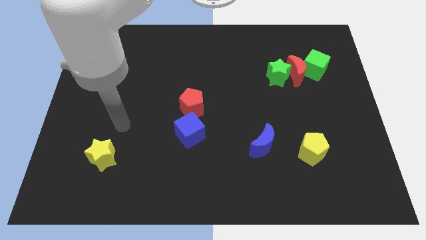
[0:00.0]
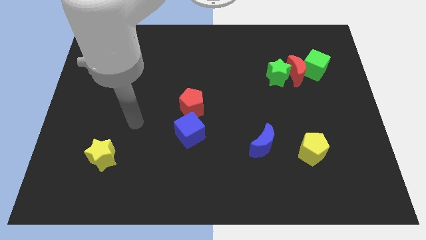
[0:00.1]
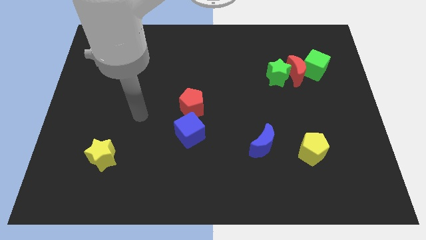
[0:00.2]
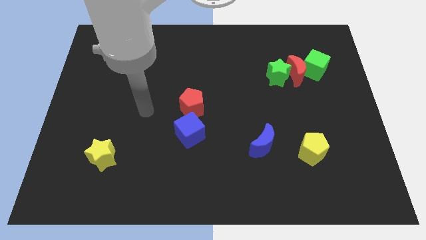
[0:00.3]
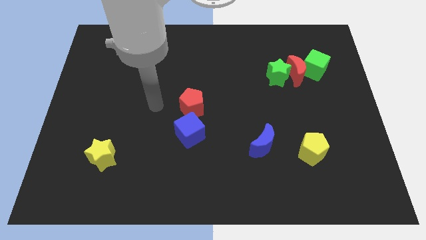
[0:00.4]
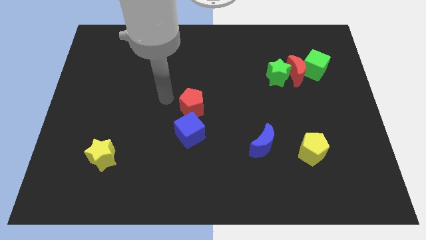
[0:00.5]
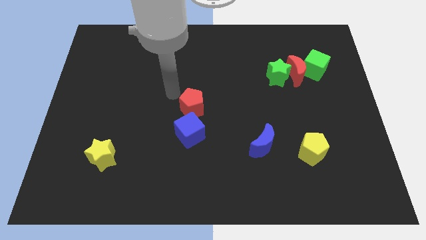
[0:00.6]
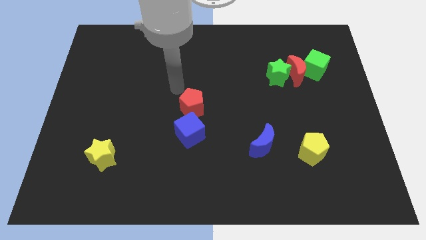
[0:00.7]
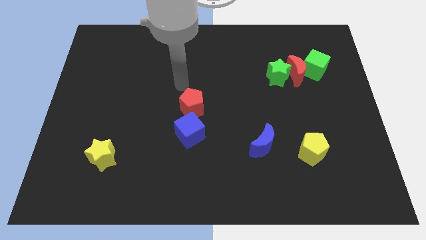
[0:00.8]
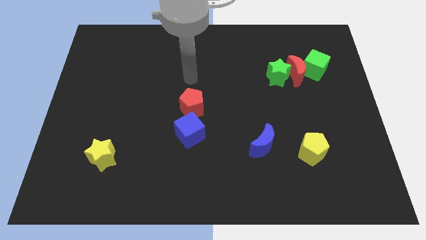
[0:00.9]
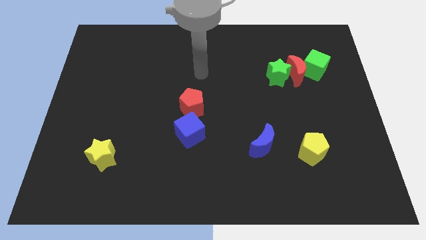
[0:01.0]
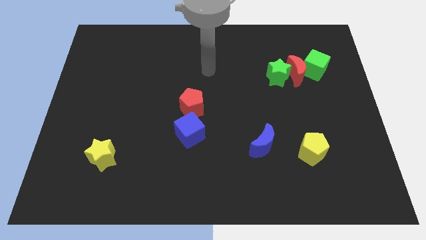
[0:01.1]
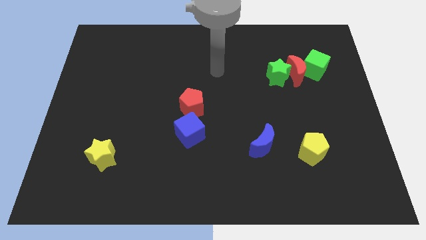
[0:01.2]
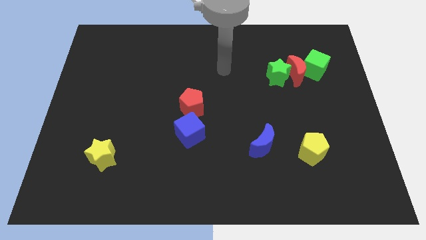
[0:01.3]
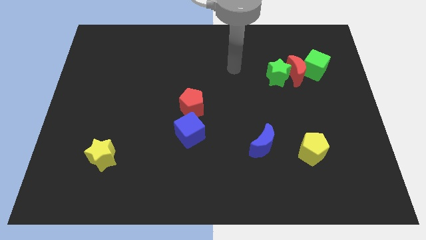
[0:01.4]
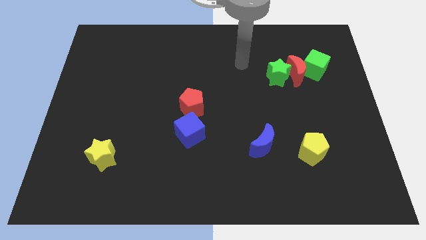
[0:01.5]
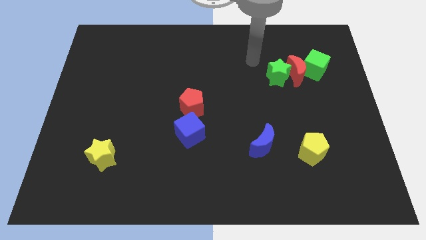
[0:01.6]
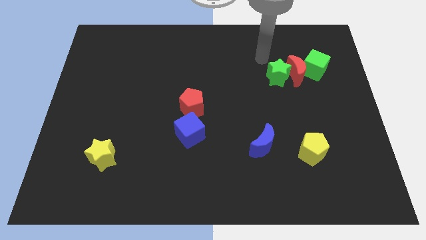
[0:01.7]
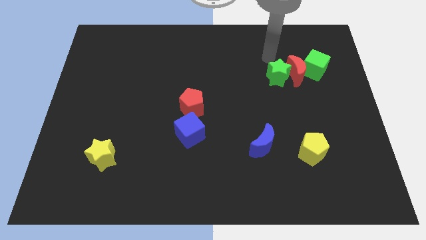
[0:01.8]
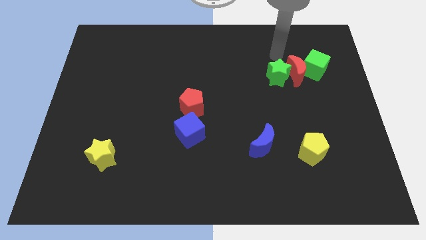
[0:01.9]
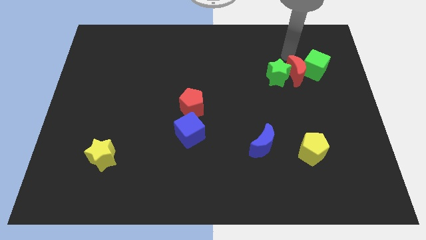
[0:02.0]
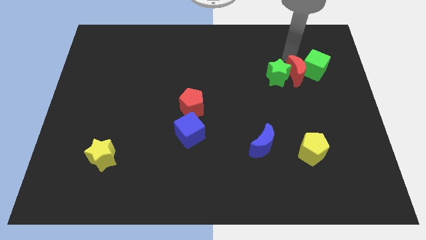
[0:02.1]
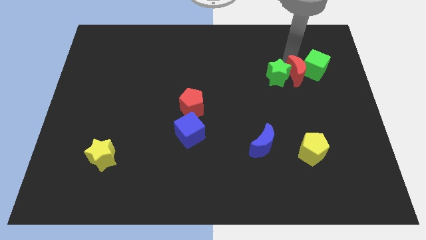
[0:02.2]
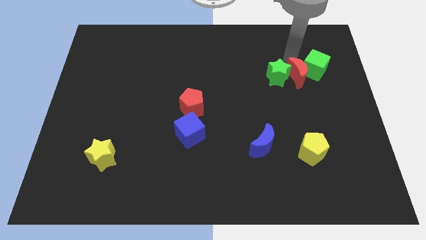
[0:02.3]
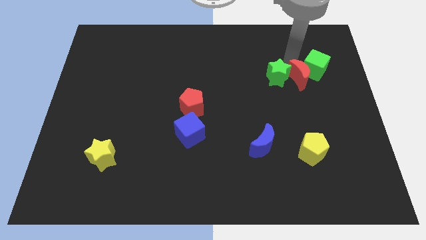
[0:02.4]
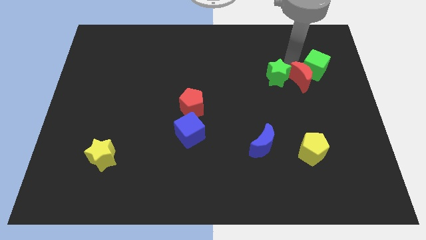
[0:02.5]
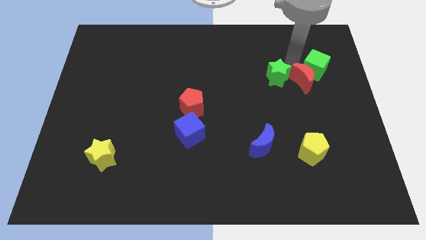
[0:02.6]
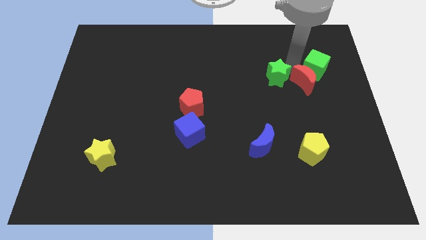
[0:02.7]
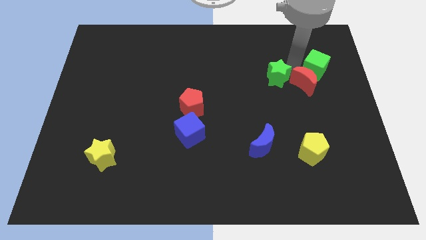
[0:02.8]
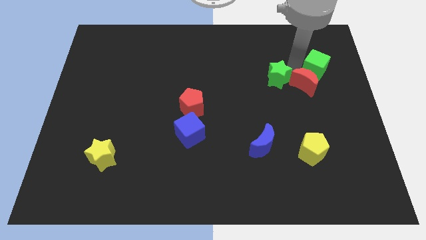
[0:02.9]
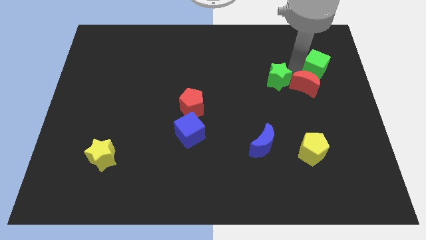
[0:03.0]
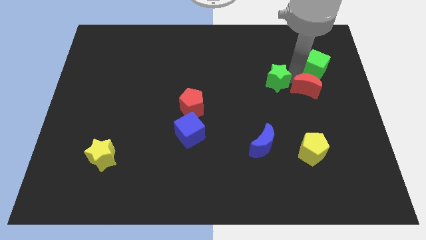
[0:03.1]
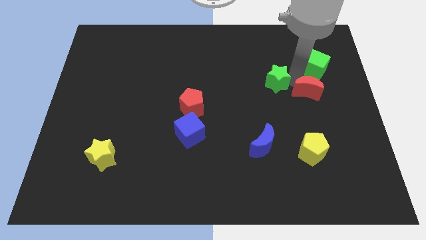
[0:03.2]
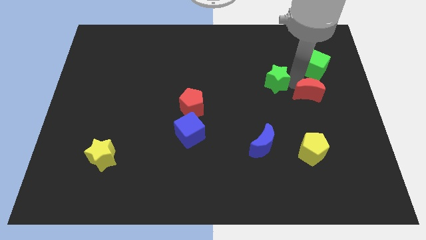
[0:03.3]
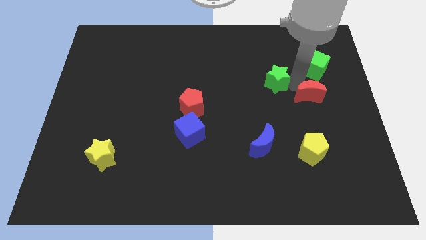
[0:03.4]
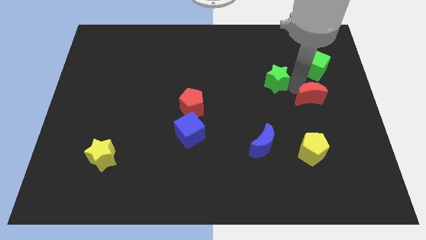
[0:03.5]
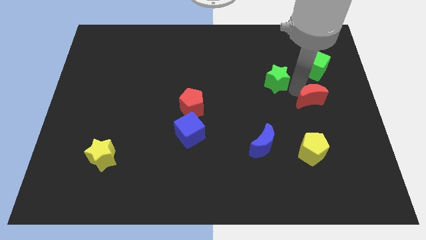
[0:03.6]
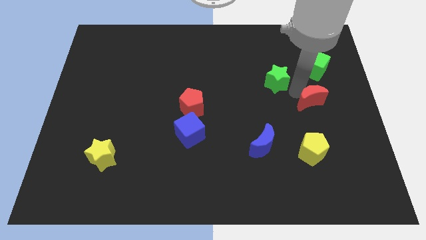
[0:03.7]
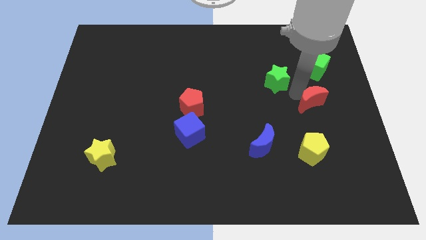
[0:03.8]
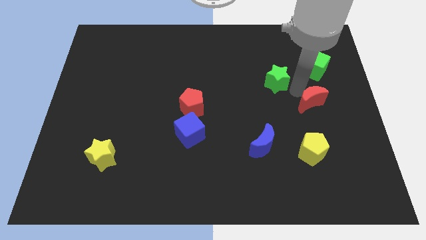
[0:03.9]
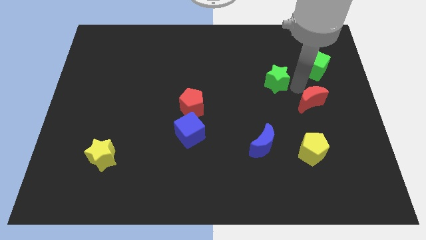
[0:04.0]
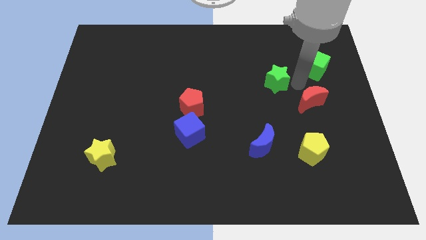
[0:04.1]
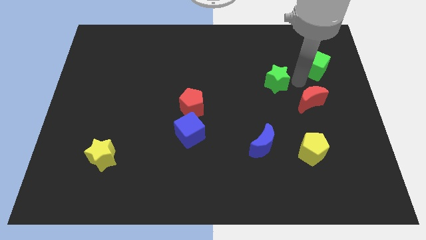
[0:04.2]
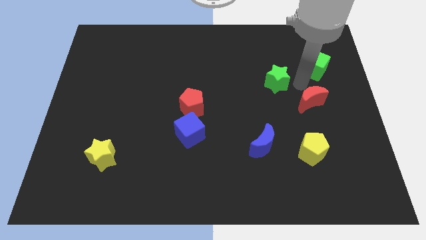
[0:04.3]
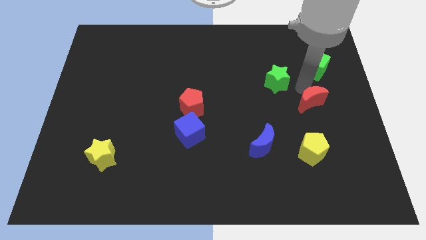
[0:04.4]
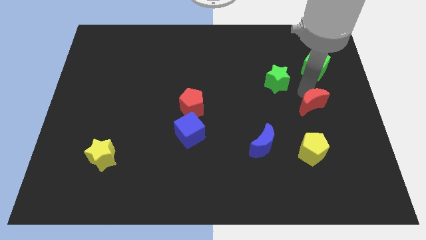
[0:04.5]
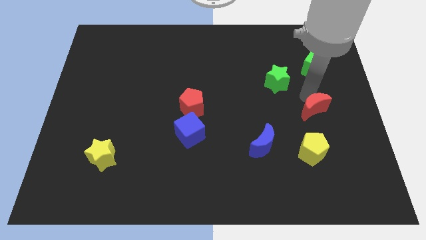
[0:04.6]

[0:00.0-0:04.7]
move the red moon away from the green star and green cube

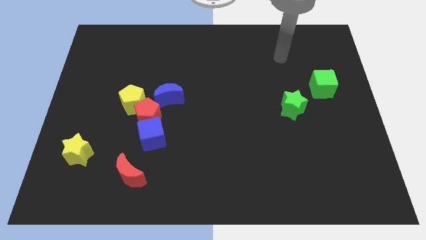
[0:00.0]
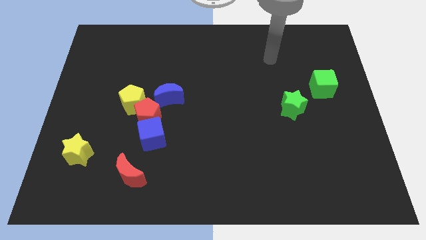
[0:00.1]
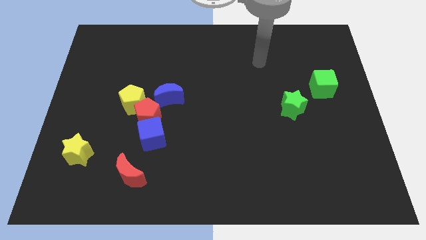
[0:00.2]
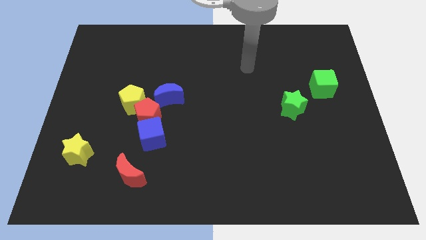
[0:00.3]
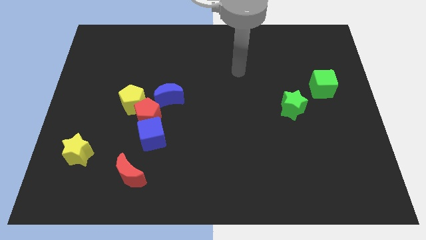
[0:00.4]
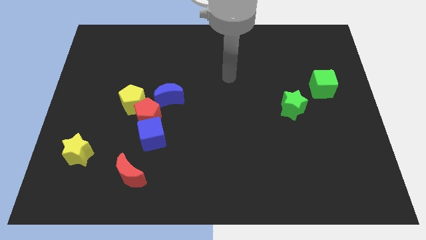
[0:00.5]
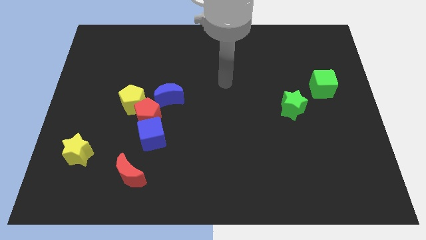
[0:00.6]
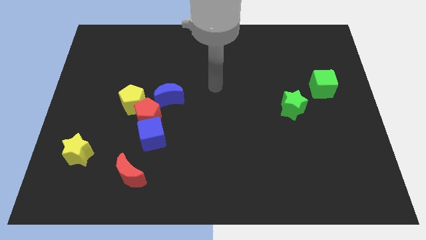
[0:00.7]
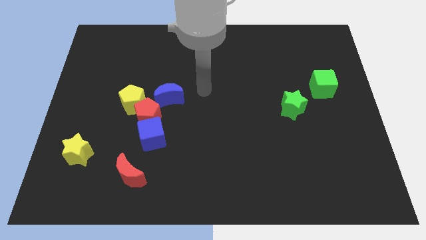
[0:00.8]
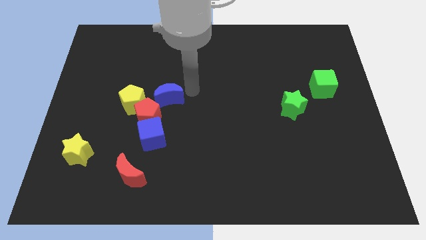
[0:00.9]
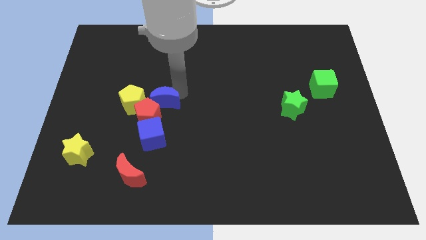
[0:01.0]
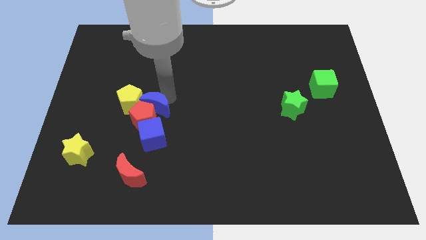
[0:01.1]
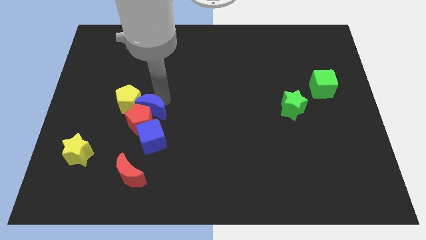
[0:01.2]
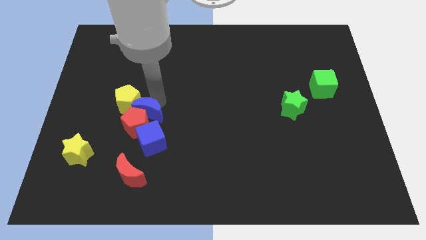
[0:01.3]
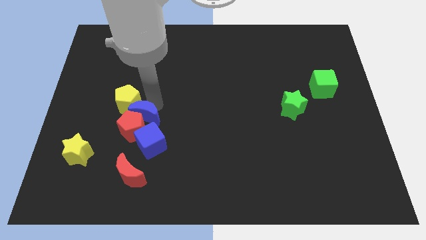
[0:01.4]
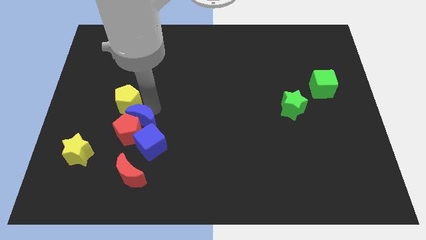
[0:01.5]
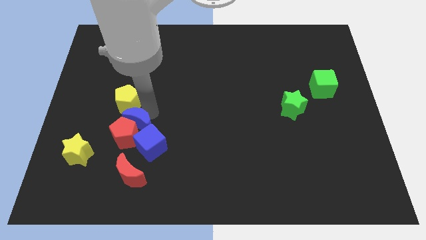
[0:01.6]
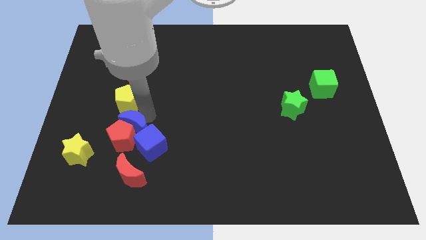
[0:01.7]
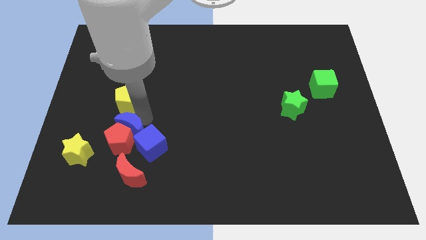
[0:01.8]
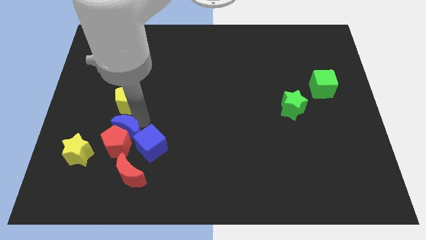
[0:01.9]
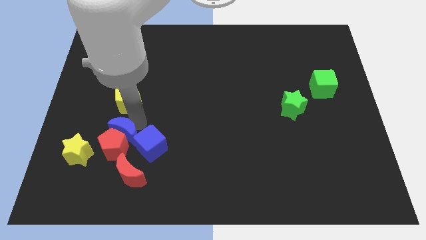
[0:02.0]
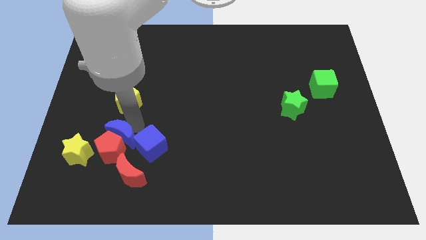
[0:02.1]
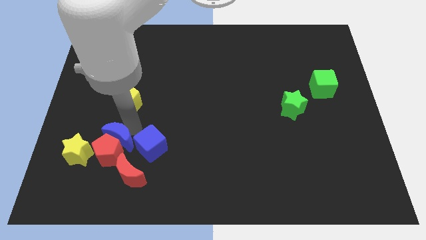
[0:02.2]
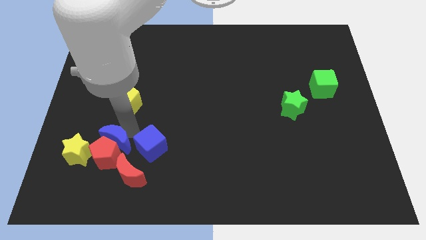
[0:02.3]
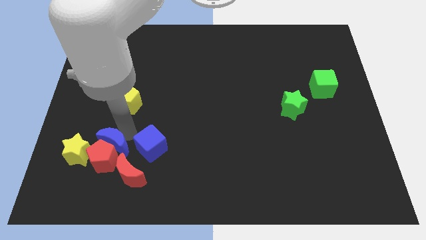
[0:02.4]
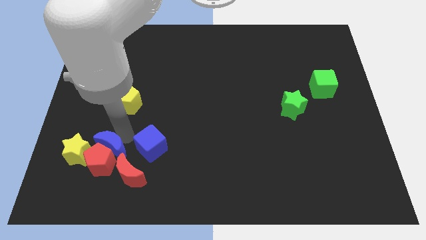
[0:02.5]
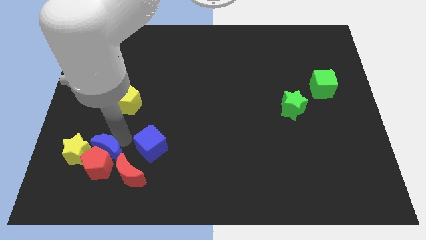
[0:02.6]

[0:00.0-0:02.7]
move the red pentagon away from the yellow pentagon, blue cube, and blue moon

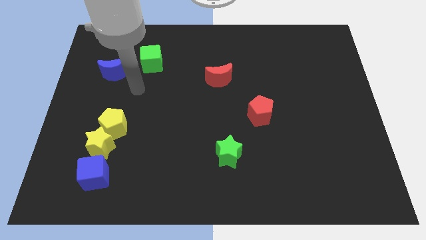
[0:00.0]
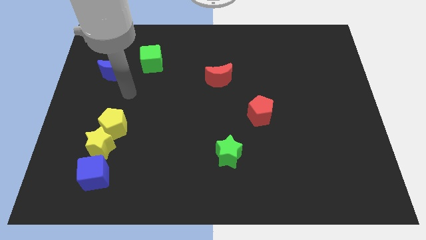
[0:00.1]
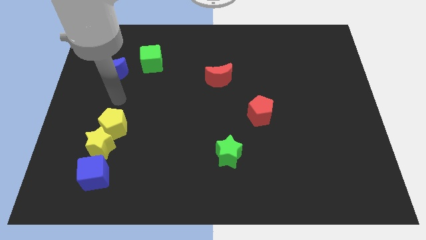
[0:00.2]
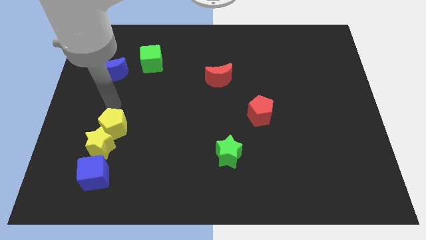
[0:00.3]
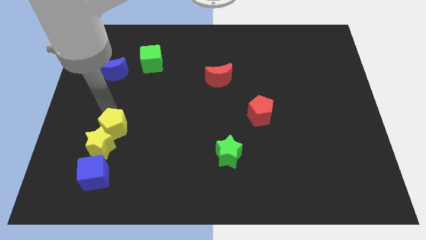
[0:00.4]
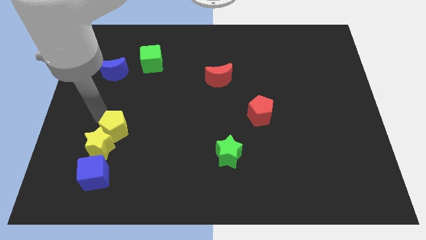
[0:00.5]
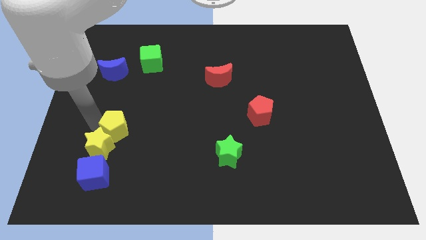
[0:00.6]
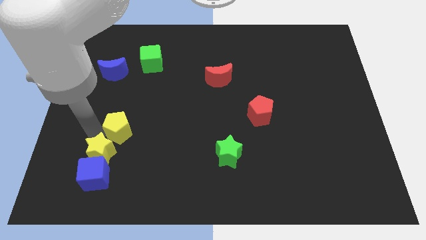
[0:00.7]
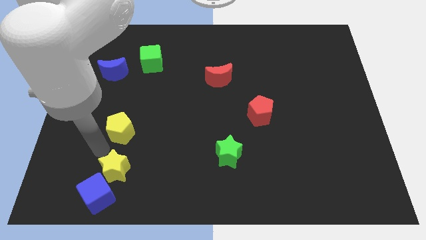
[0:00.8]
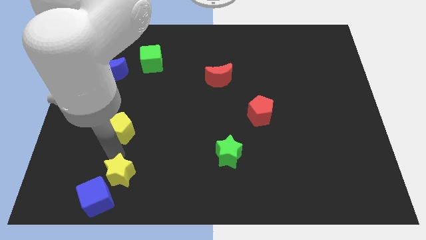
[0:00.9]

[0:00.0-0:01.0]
separate the yellow pentagon from the yellow star

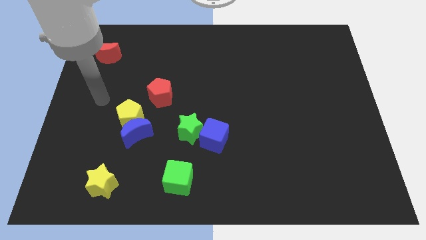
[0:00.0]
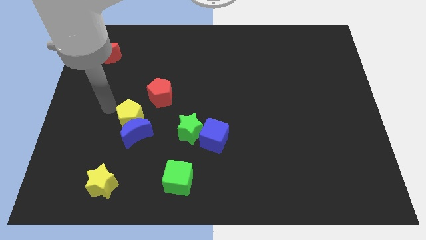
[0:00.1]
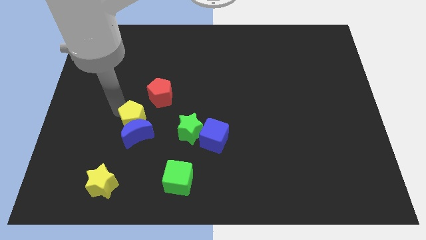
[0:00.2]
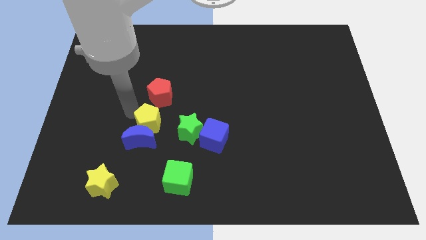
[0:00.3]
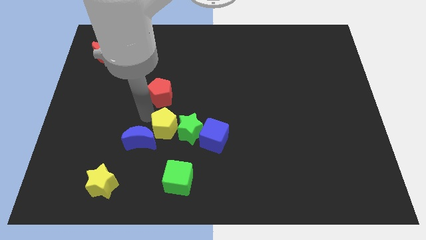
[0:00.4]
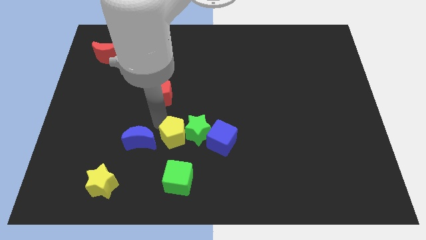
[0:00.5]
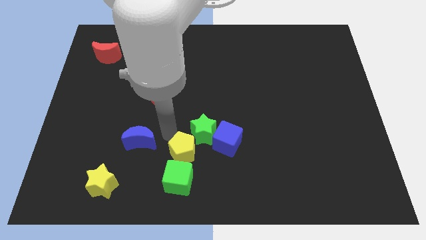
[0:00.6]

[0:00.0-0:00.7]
separate the blue moon from the yellow pentagon

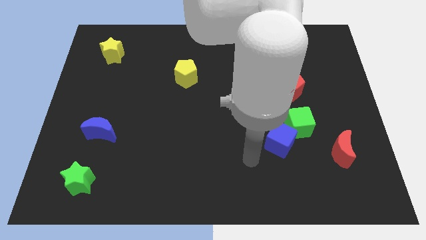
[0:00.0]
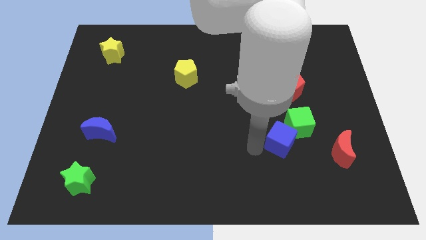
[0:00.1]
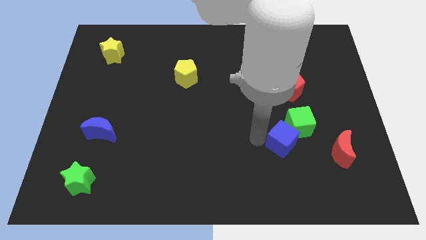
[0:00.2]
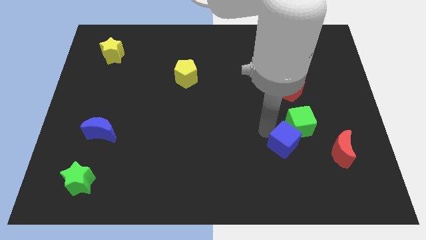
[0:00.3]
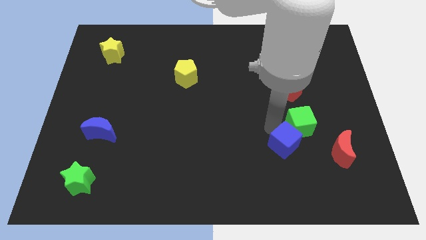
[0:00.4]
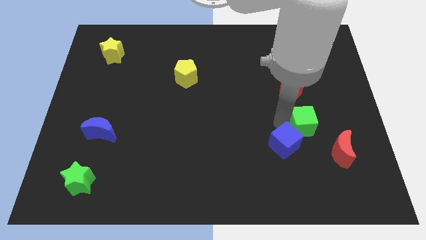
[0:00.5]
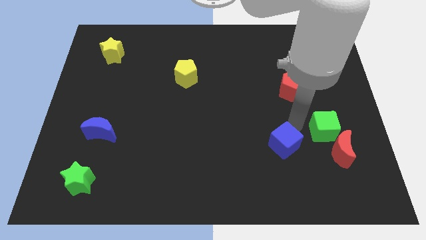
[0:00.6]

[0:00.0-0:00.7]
separate the blue cube from the green cube
